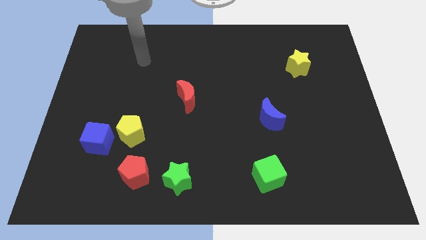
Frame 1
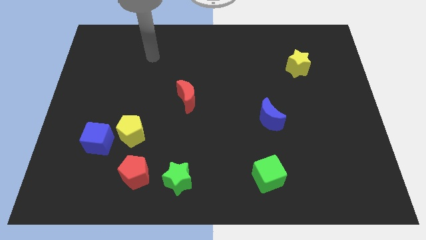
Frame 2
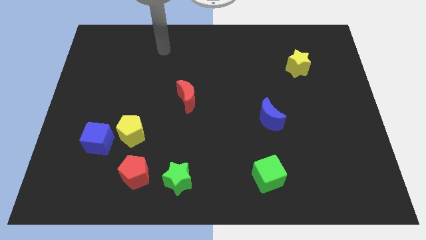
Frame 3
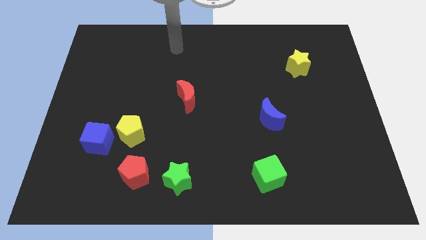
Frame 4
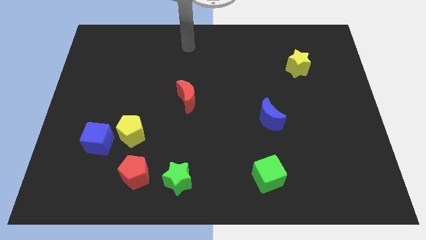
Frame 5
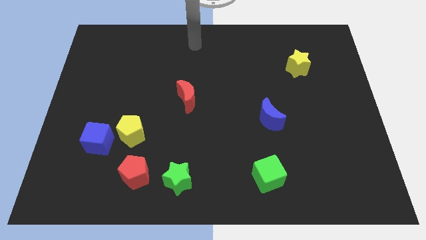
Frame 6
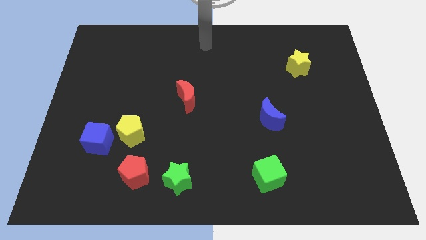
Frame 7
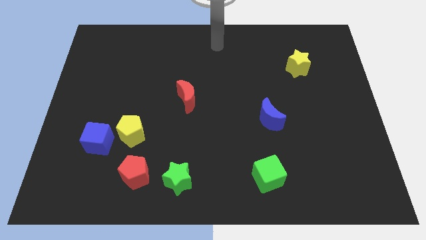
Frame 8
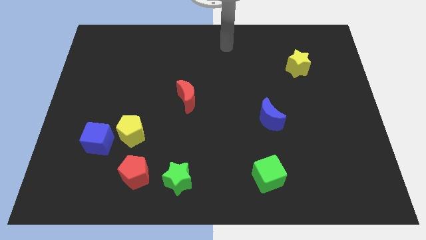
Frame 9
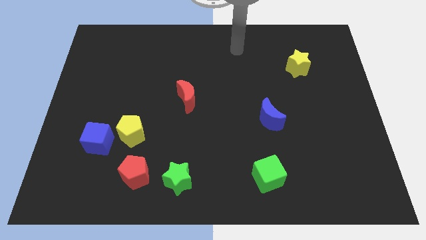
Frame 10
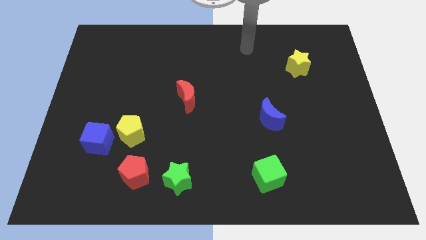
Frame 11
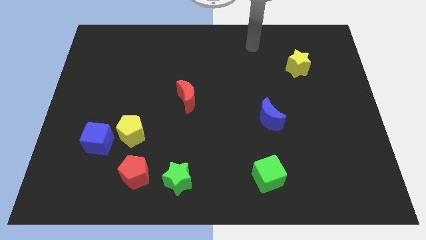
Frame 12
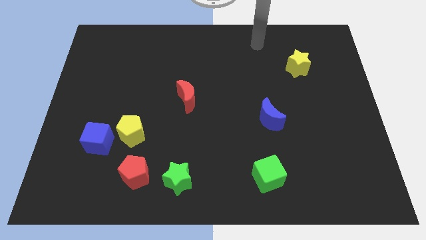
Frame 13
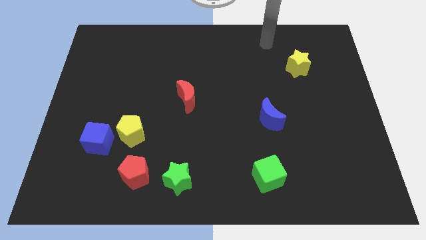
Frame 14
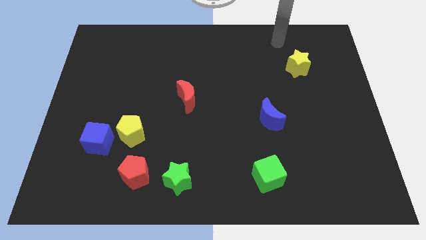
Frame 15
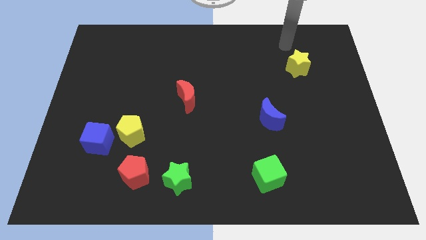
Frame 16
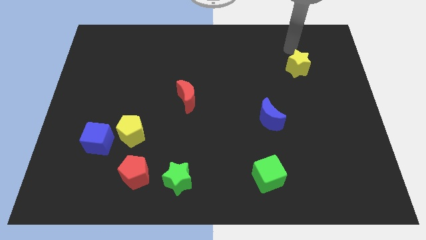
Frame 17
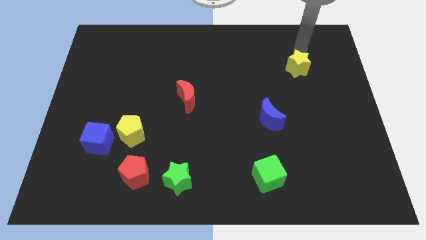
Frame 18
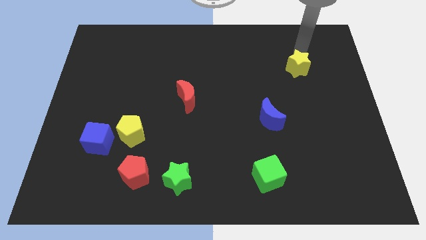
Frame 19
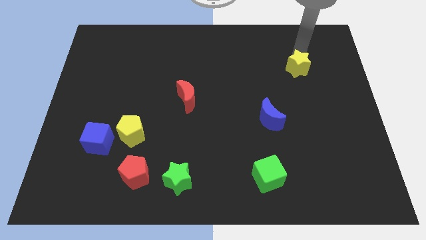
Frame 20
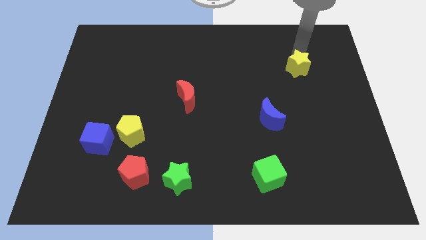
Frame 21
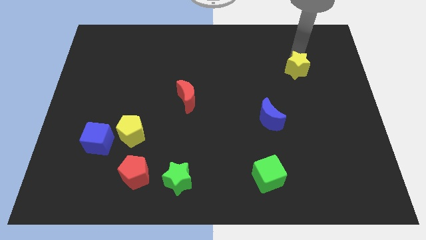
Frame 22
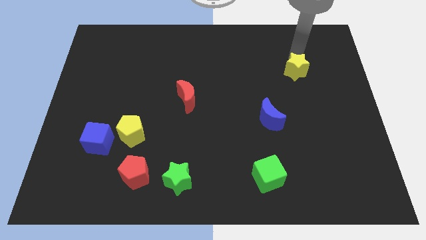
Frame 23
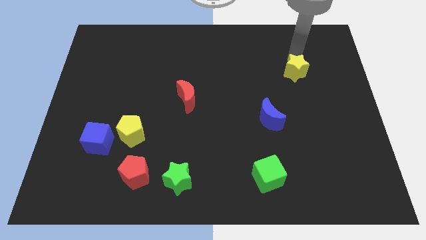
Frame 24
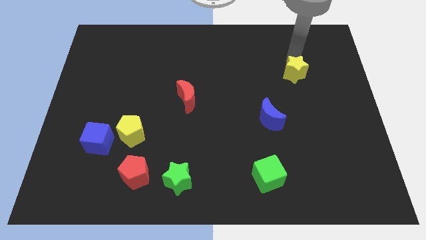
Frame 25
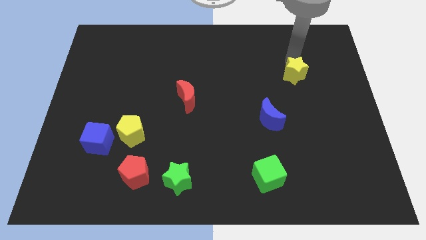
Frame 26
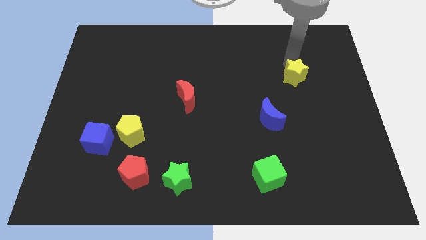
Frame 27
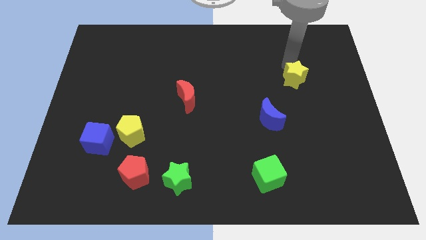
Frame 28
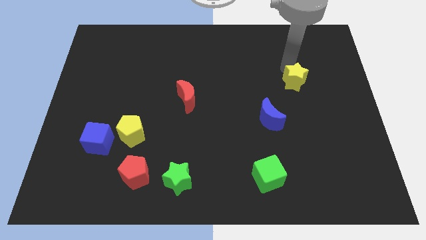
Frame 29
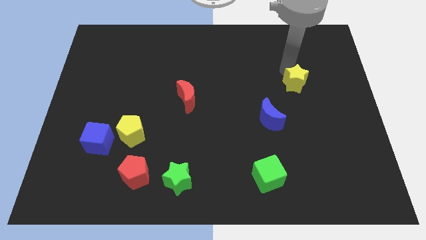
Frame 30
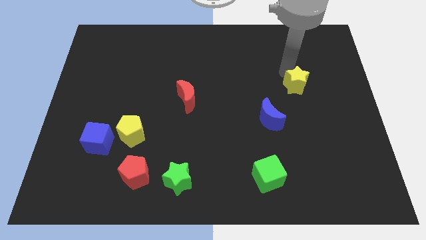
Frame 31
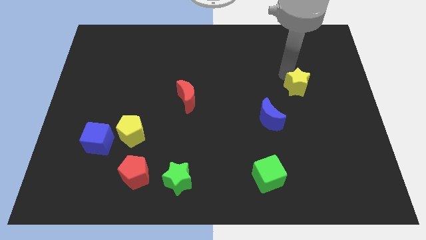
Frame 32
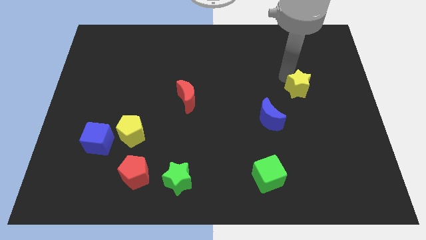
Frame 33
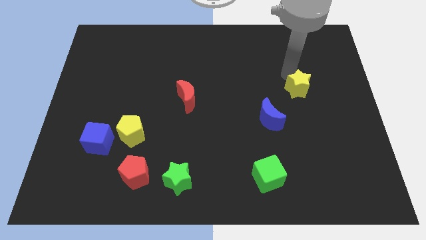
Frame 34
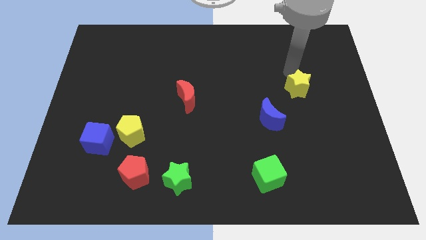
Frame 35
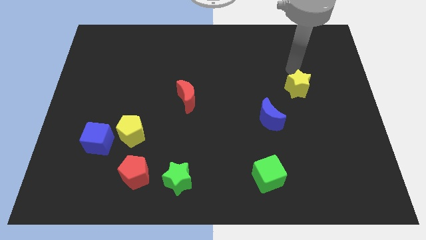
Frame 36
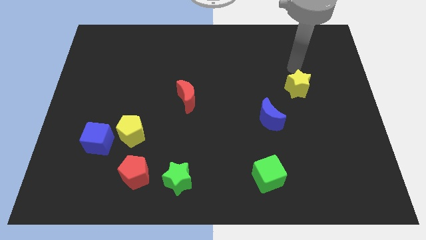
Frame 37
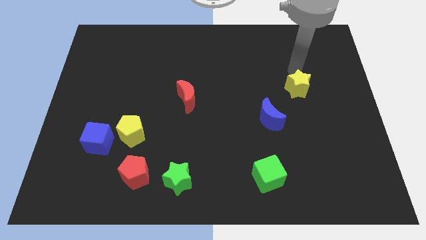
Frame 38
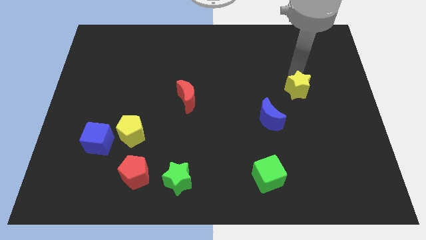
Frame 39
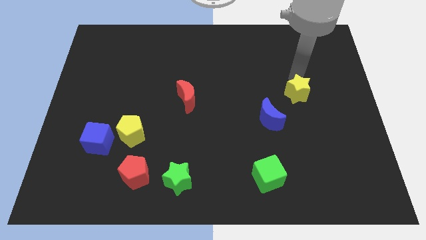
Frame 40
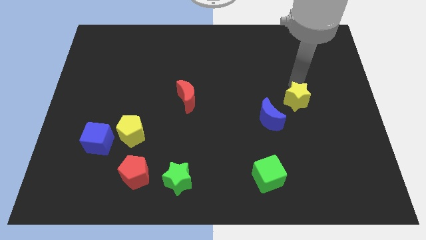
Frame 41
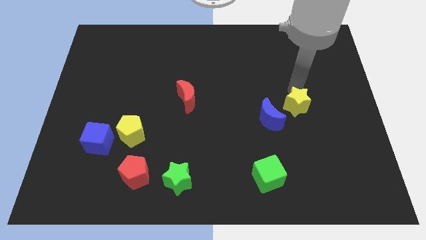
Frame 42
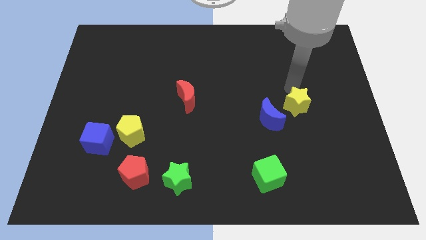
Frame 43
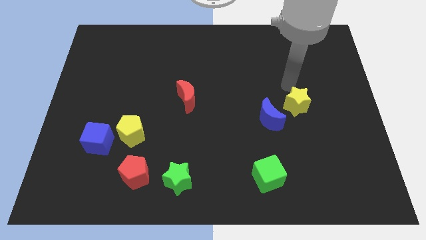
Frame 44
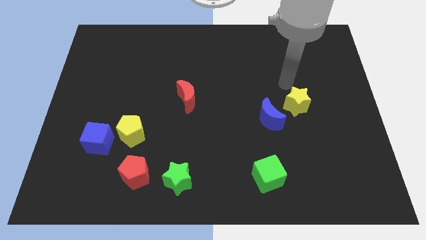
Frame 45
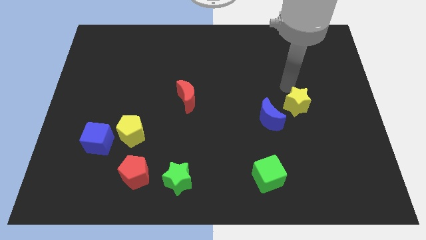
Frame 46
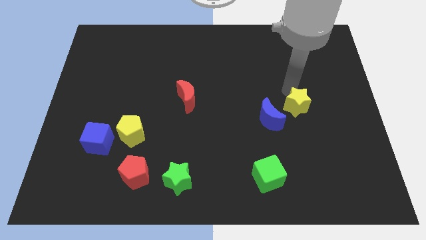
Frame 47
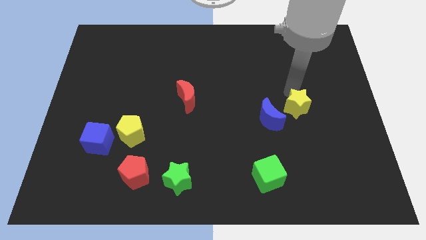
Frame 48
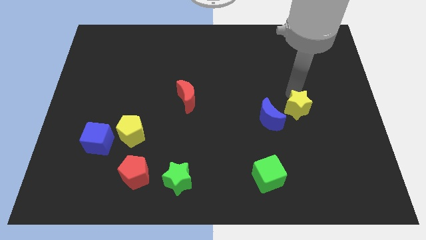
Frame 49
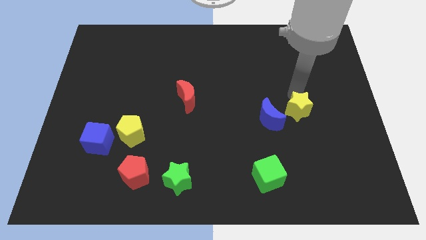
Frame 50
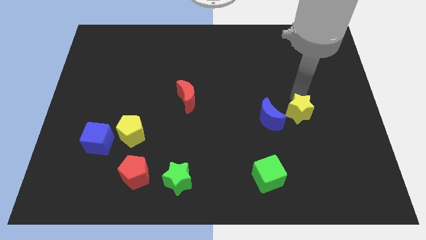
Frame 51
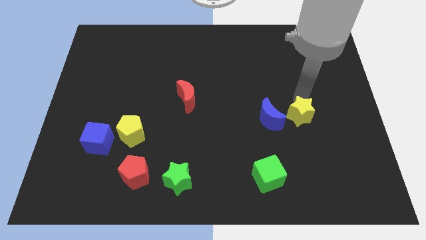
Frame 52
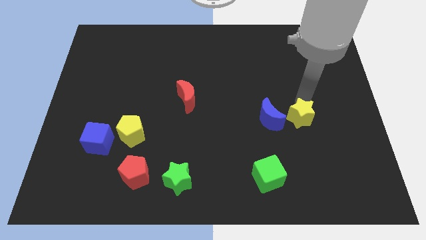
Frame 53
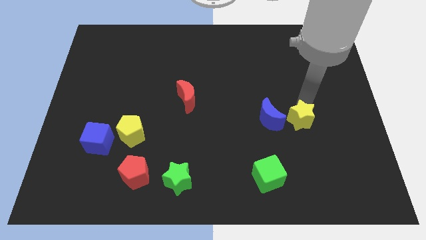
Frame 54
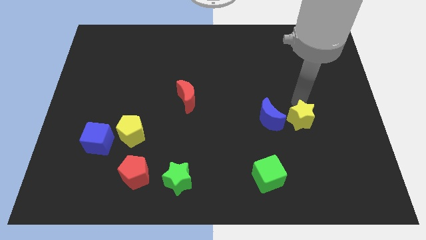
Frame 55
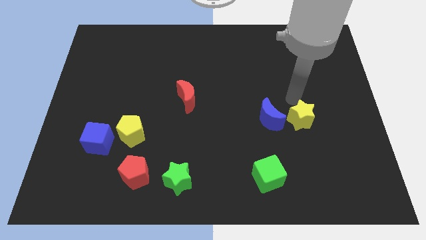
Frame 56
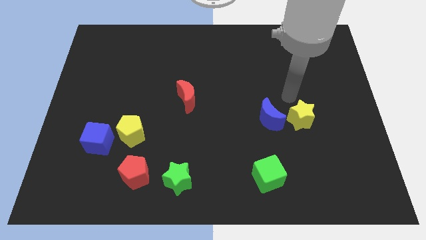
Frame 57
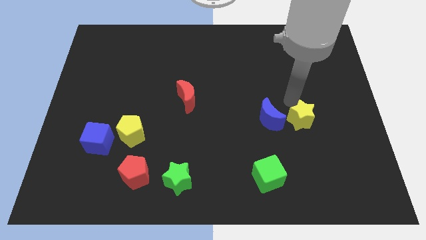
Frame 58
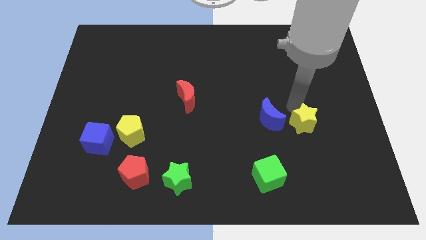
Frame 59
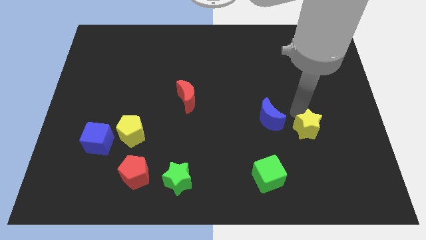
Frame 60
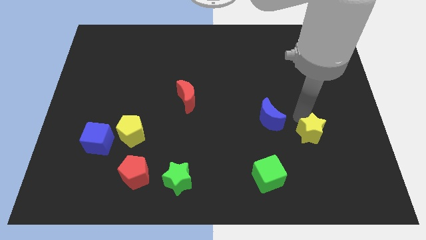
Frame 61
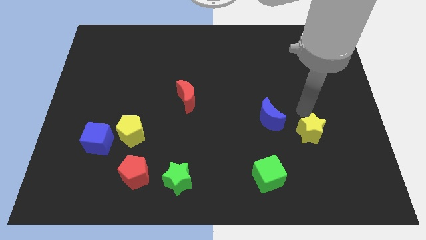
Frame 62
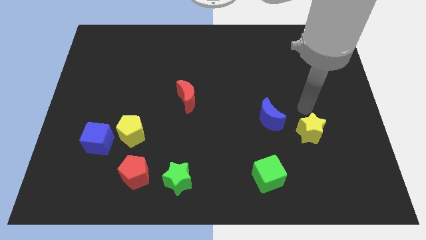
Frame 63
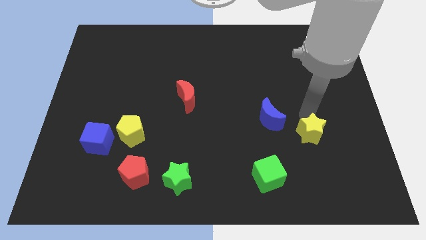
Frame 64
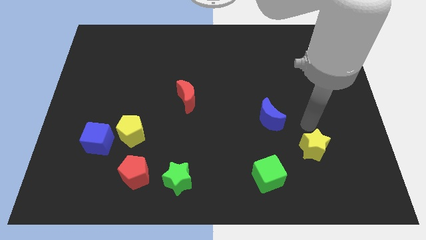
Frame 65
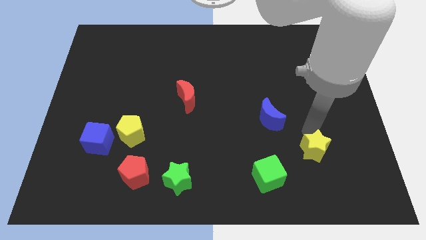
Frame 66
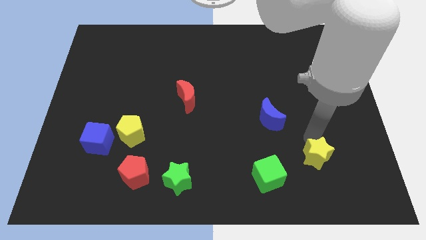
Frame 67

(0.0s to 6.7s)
push the yellow star to the right of the green cube
